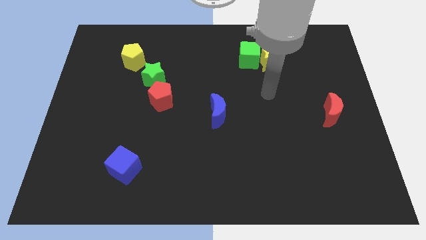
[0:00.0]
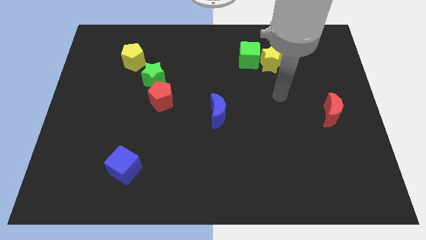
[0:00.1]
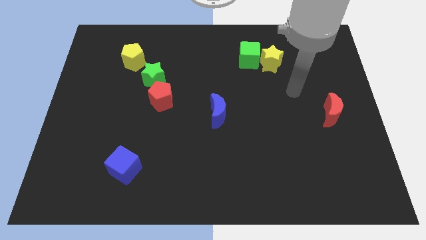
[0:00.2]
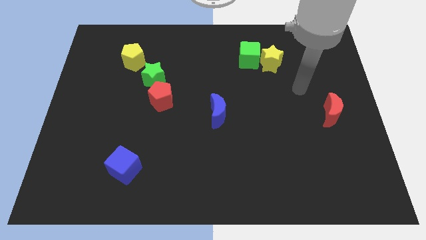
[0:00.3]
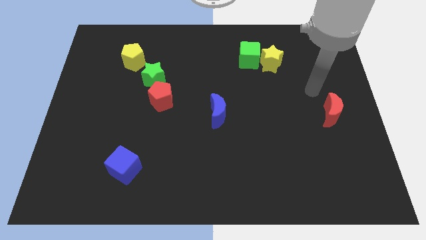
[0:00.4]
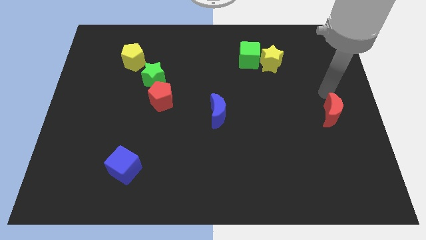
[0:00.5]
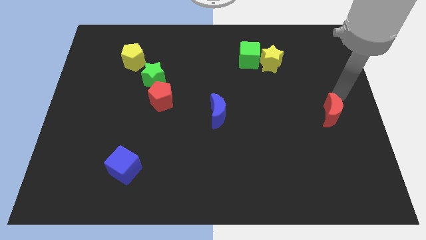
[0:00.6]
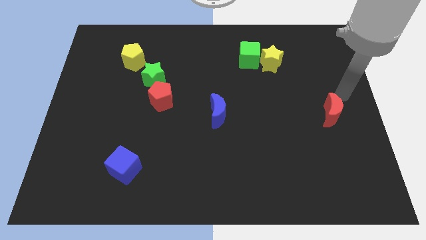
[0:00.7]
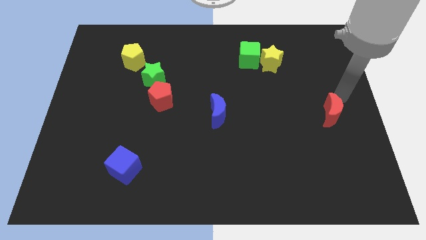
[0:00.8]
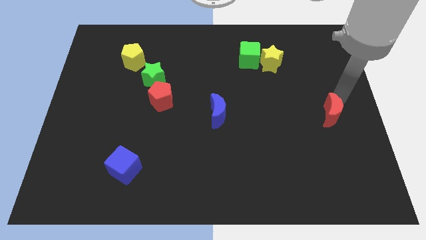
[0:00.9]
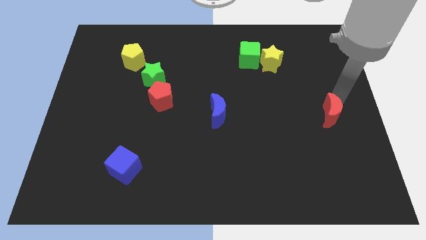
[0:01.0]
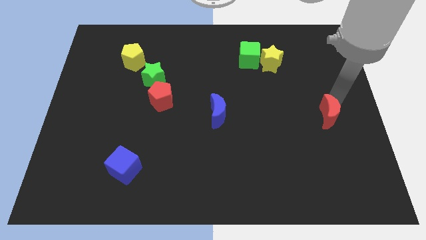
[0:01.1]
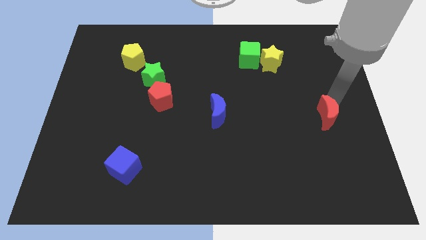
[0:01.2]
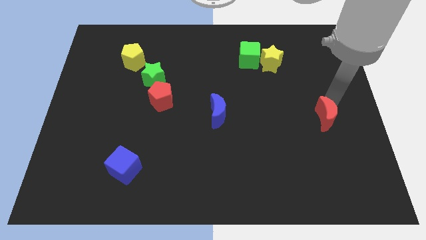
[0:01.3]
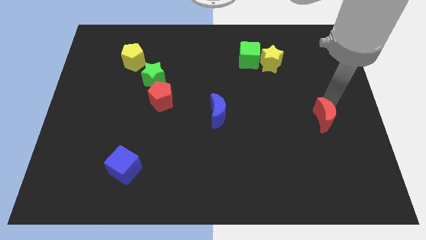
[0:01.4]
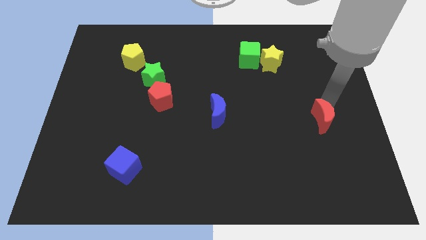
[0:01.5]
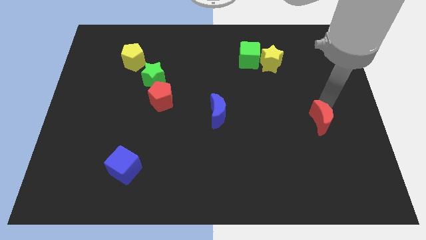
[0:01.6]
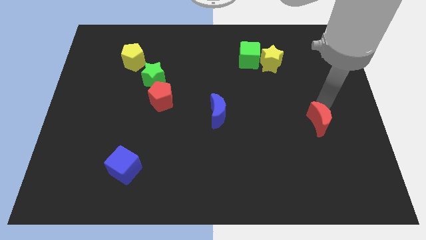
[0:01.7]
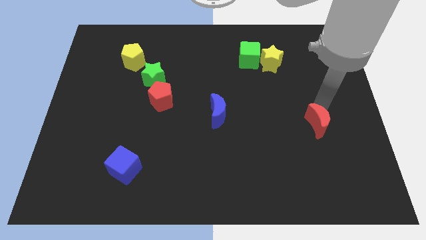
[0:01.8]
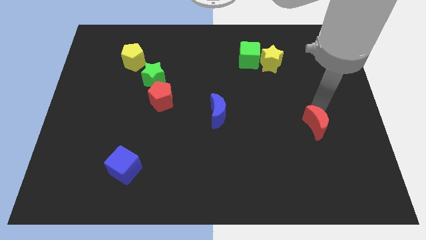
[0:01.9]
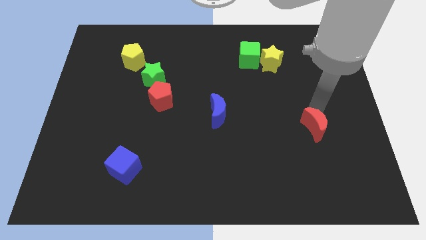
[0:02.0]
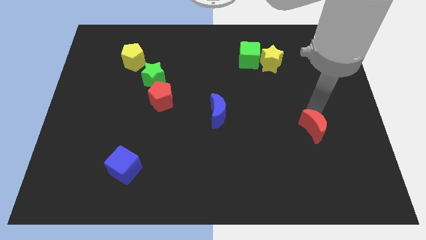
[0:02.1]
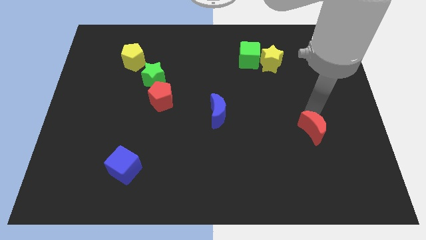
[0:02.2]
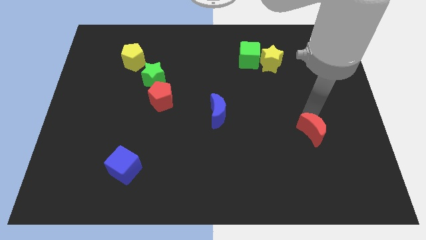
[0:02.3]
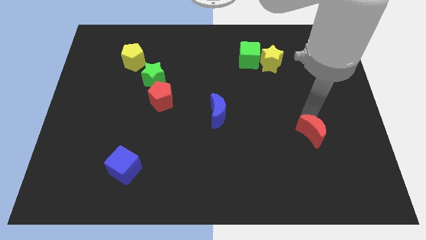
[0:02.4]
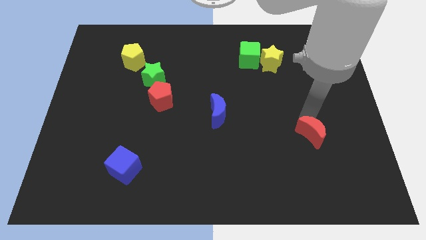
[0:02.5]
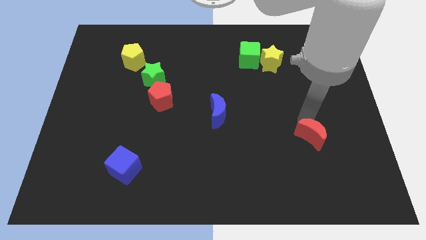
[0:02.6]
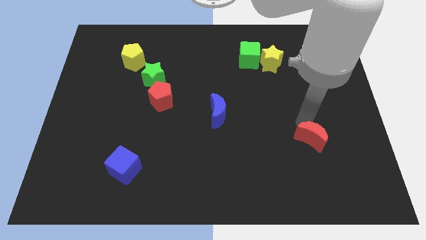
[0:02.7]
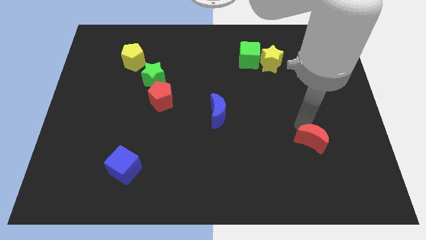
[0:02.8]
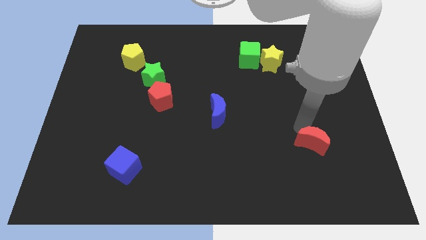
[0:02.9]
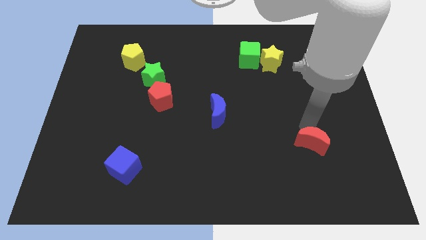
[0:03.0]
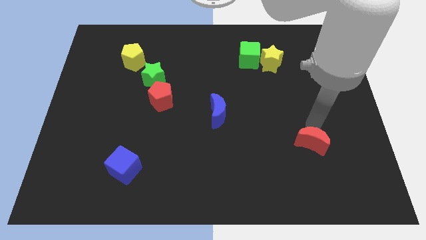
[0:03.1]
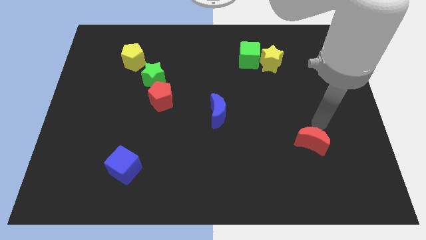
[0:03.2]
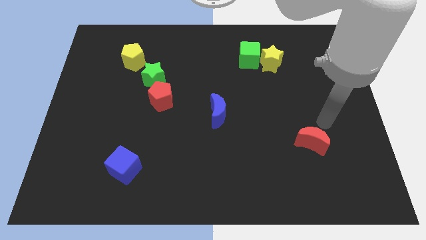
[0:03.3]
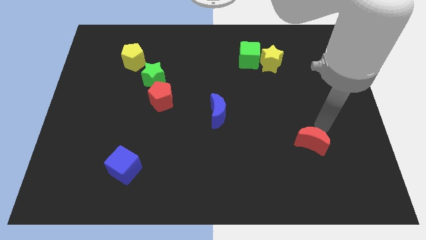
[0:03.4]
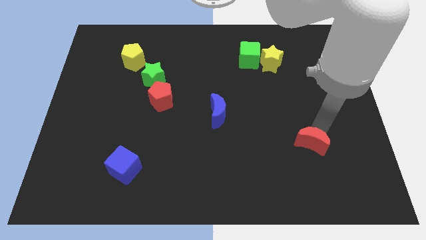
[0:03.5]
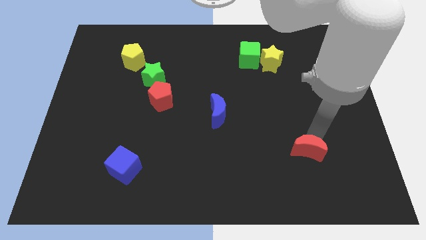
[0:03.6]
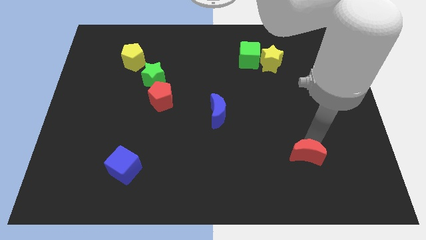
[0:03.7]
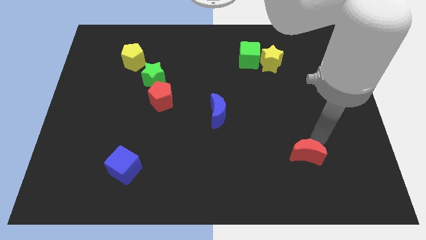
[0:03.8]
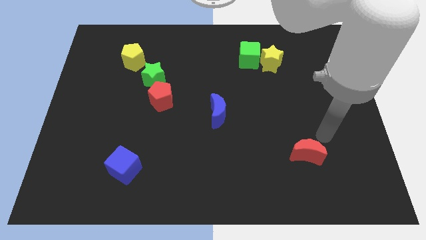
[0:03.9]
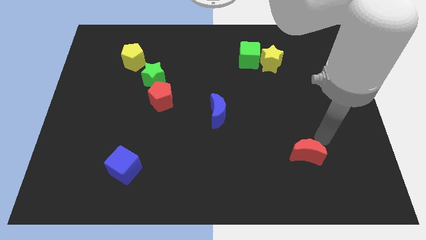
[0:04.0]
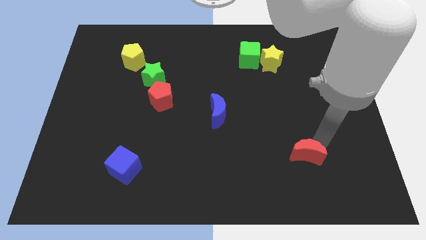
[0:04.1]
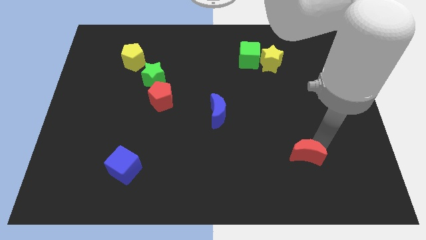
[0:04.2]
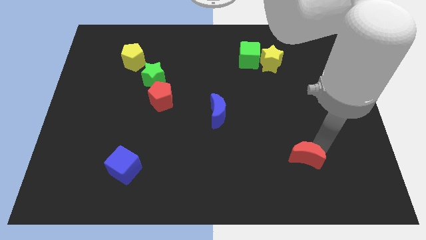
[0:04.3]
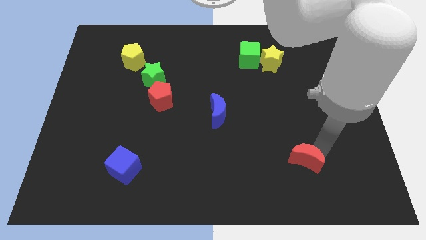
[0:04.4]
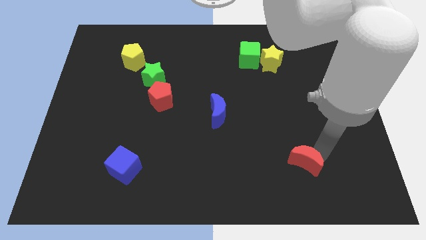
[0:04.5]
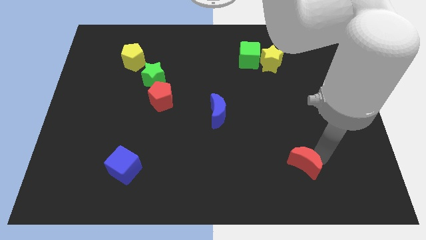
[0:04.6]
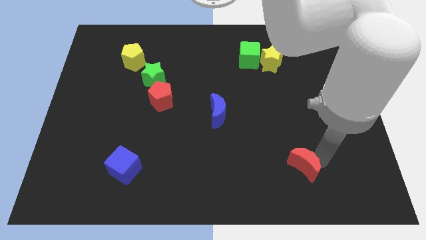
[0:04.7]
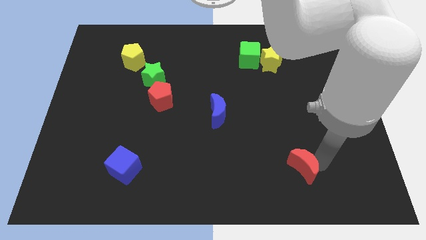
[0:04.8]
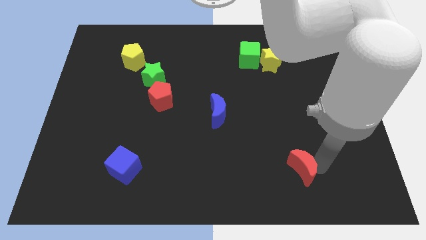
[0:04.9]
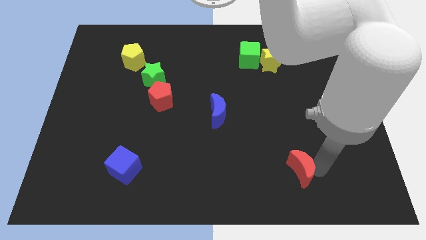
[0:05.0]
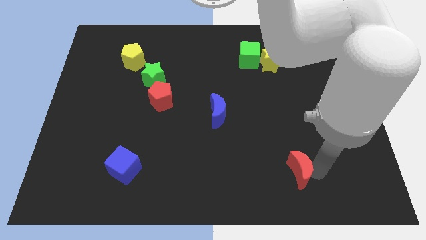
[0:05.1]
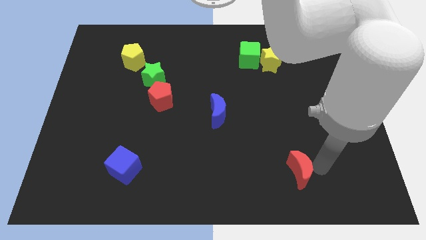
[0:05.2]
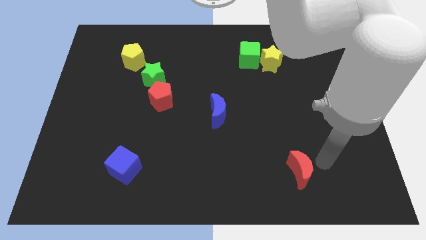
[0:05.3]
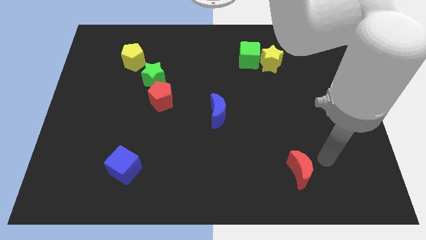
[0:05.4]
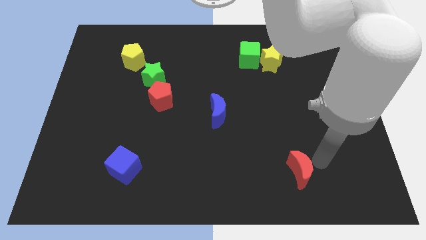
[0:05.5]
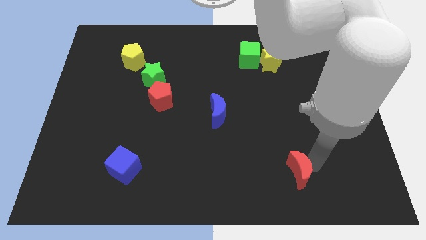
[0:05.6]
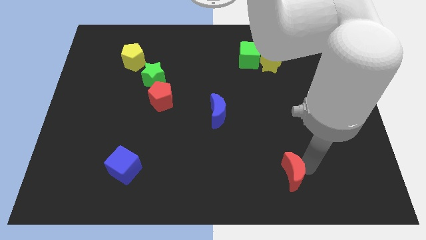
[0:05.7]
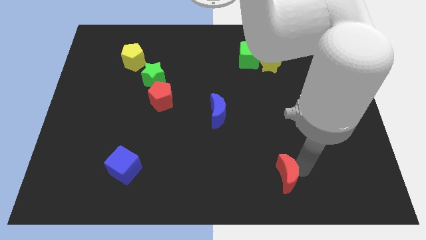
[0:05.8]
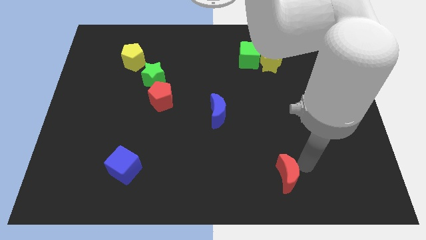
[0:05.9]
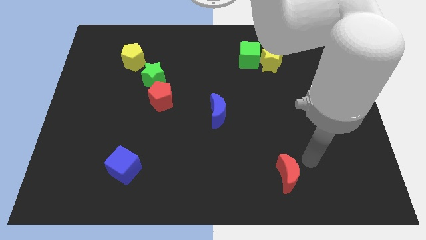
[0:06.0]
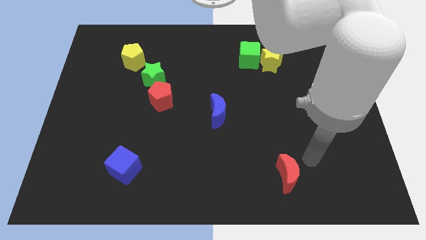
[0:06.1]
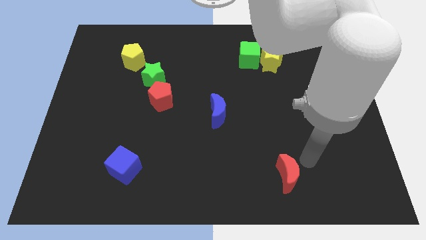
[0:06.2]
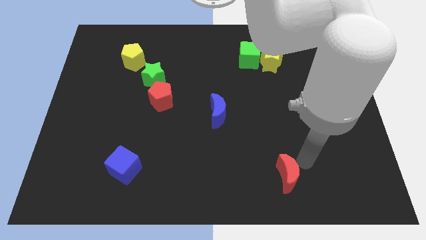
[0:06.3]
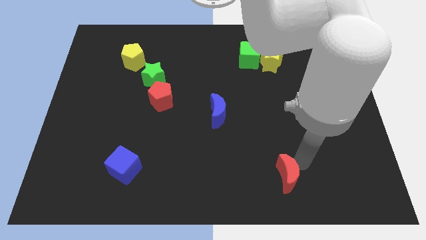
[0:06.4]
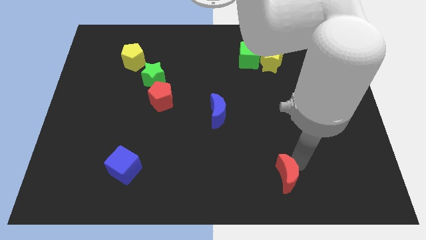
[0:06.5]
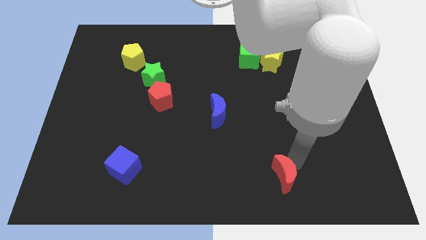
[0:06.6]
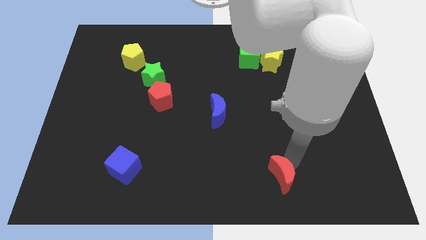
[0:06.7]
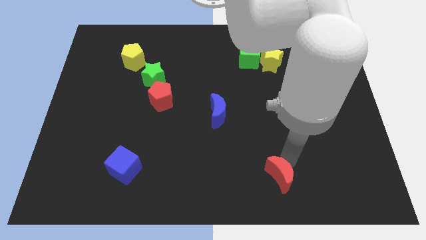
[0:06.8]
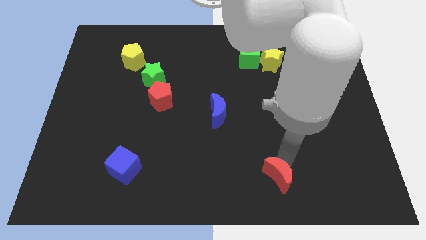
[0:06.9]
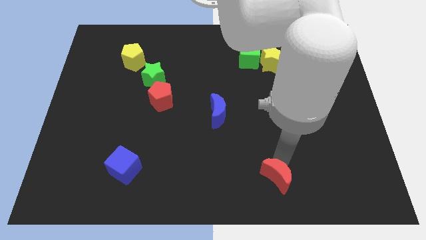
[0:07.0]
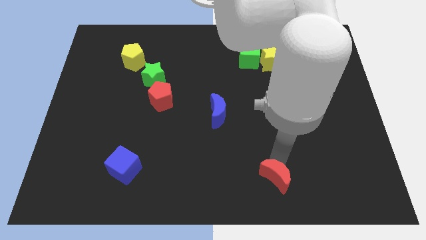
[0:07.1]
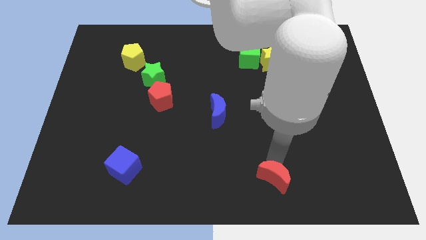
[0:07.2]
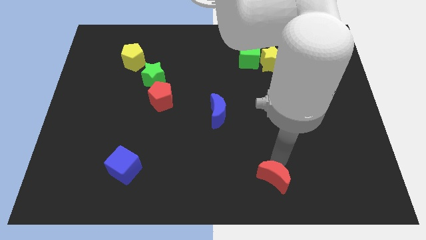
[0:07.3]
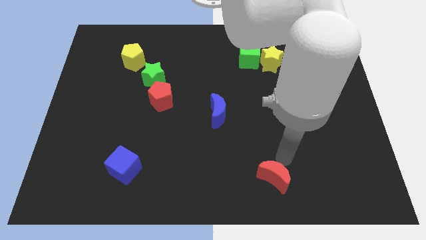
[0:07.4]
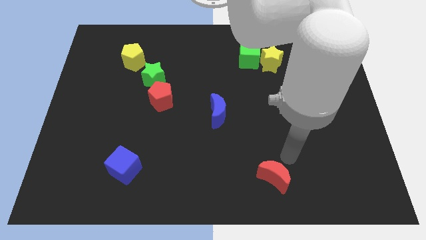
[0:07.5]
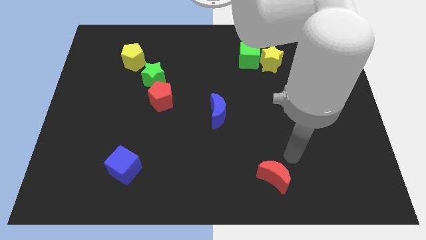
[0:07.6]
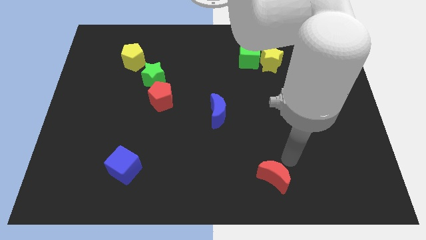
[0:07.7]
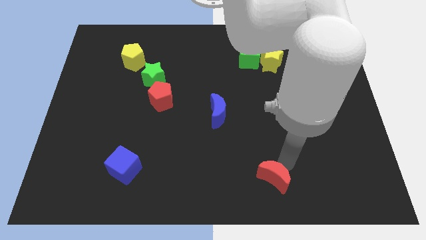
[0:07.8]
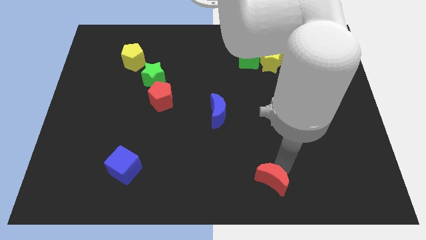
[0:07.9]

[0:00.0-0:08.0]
move the red moon to the bottom
